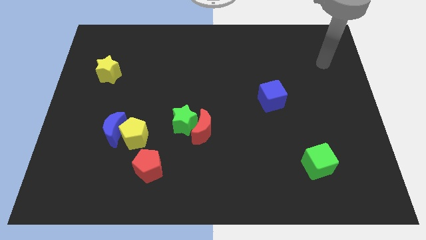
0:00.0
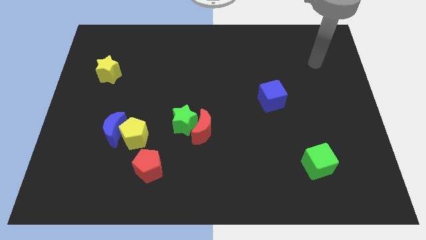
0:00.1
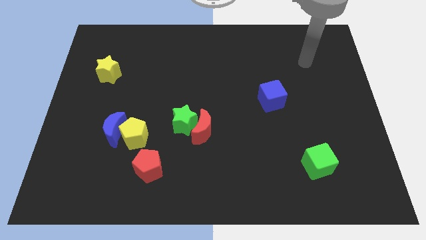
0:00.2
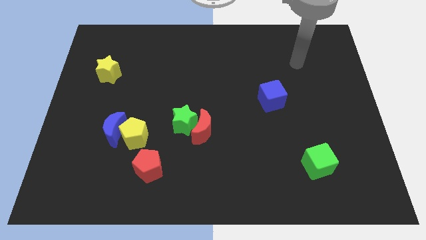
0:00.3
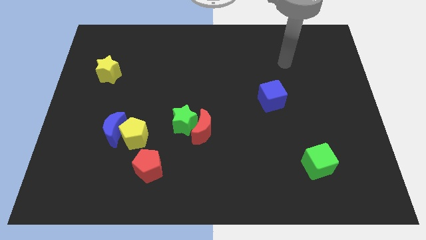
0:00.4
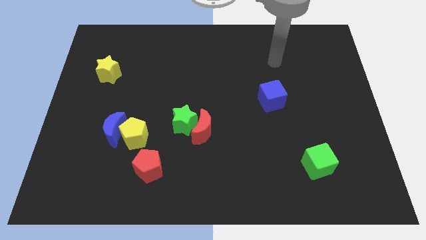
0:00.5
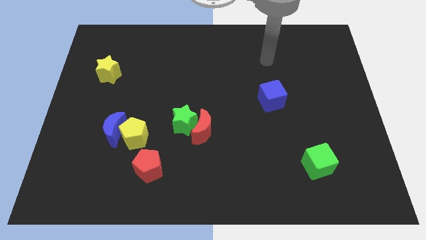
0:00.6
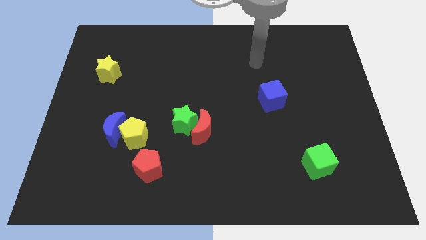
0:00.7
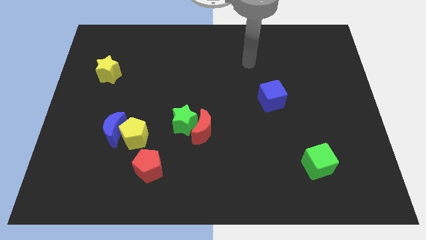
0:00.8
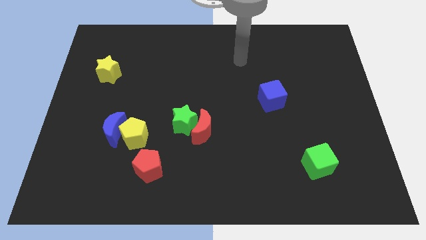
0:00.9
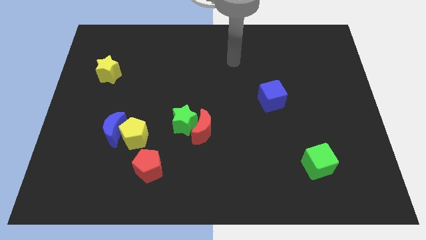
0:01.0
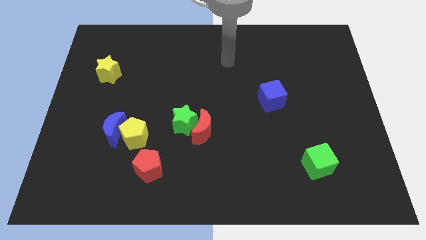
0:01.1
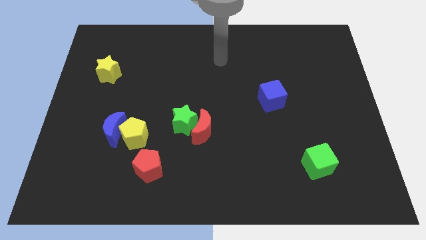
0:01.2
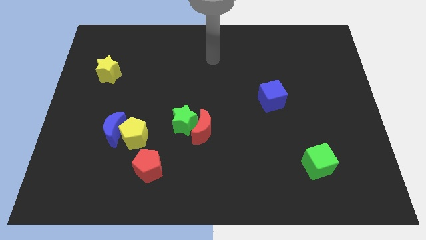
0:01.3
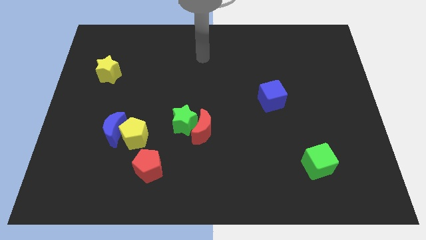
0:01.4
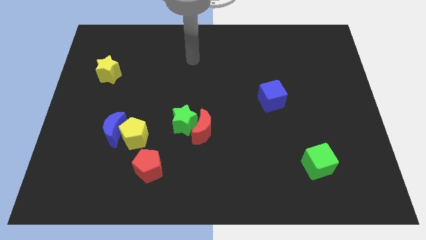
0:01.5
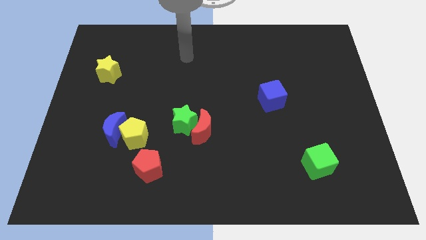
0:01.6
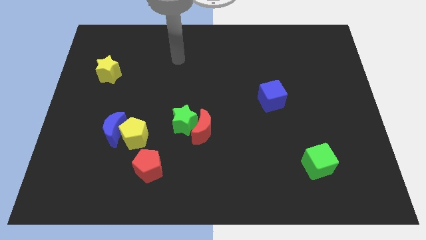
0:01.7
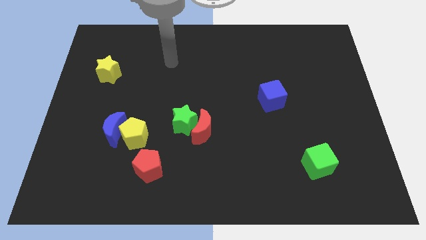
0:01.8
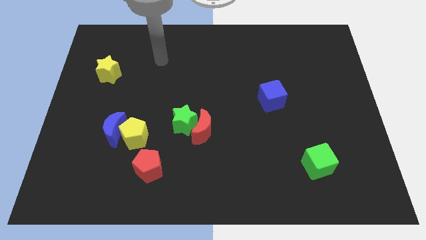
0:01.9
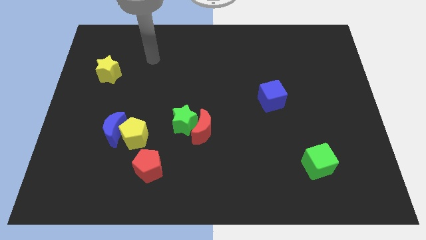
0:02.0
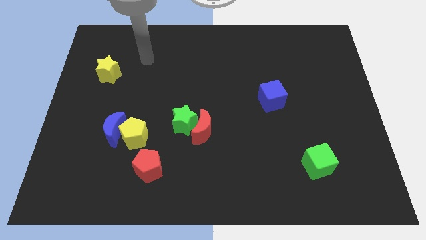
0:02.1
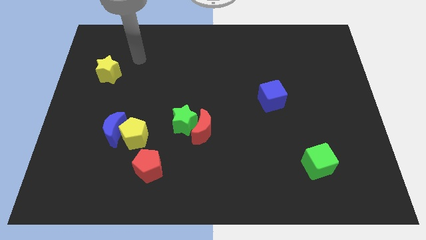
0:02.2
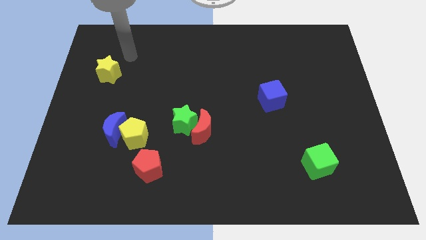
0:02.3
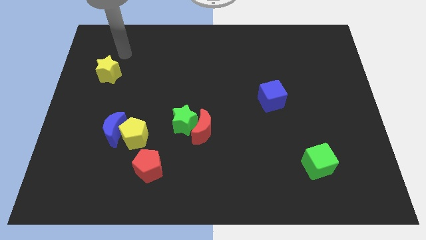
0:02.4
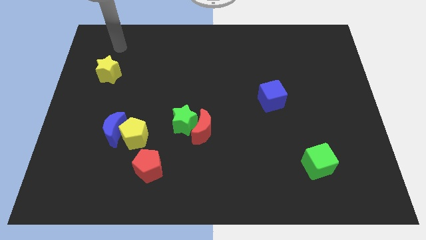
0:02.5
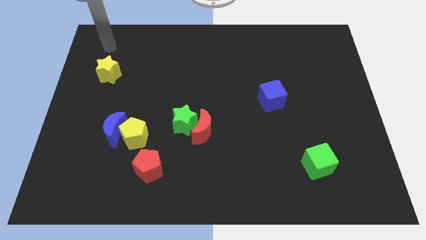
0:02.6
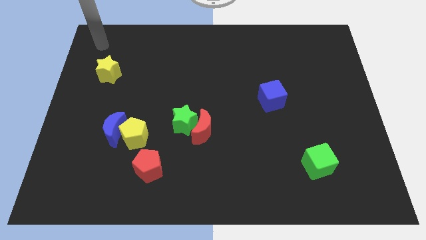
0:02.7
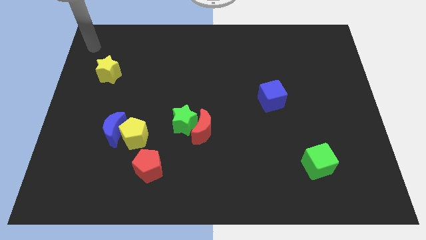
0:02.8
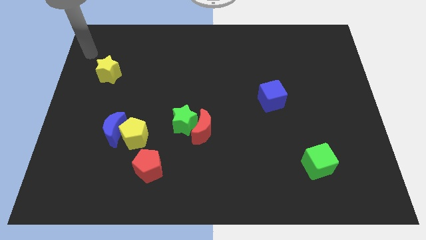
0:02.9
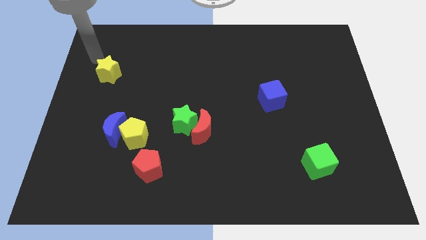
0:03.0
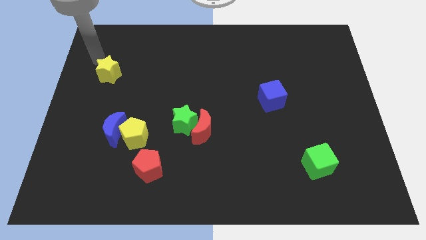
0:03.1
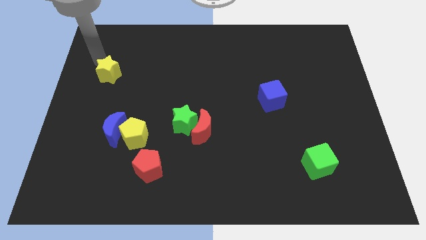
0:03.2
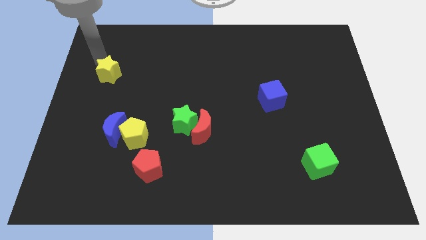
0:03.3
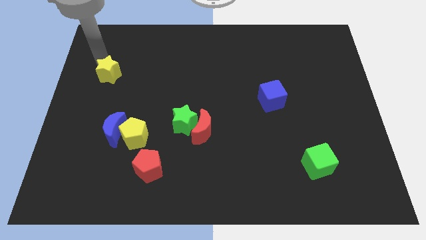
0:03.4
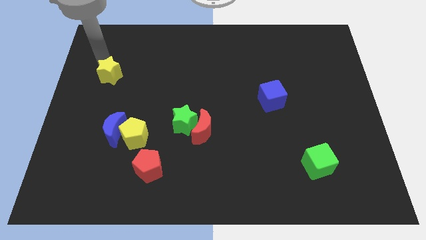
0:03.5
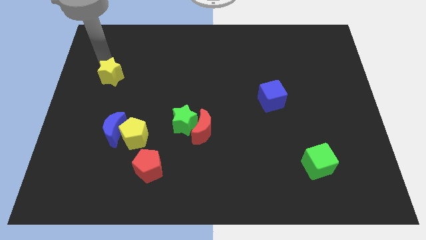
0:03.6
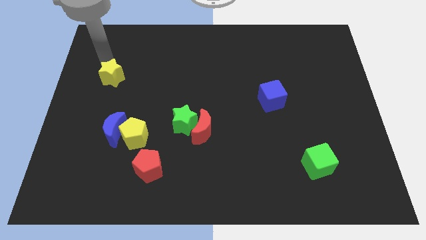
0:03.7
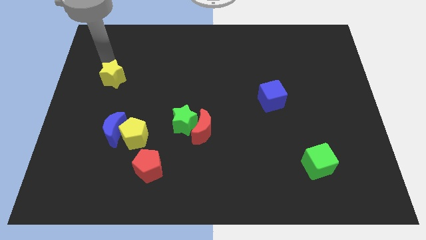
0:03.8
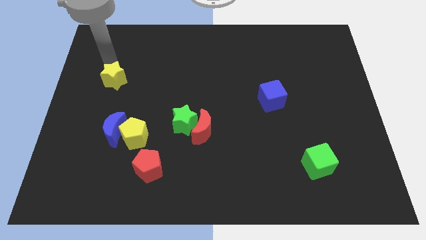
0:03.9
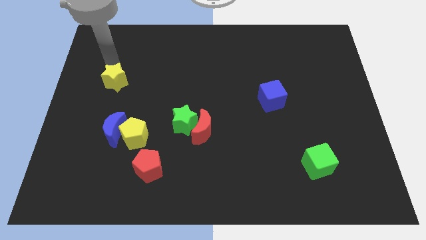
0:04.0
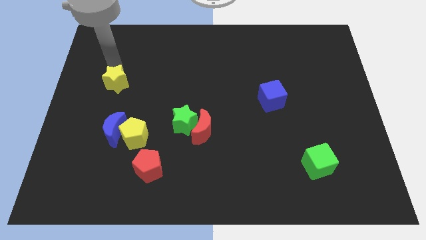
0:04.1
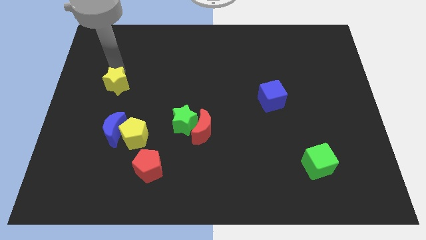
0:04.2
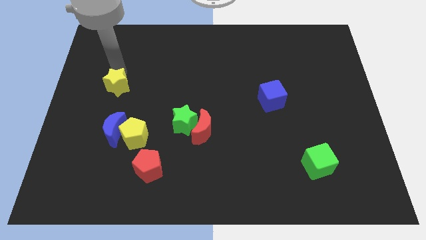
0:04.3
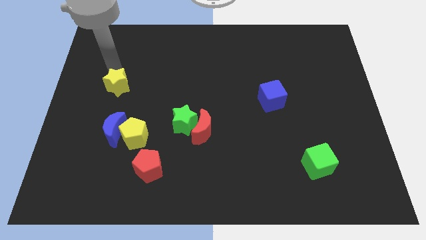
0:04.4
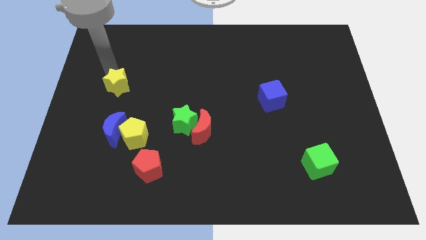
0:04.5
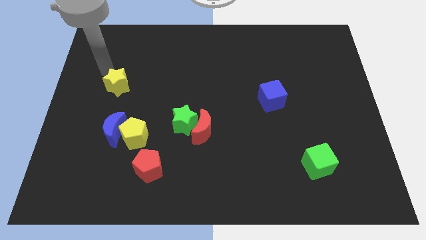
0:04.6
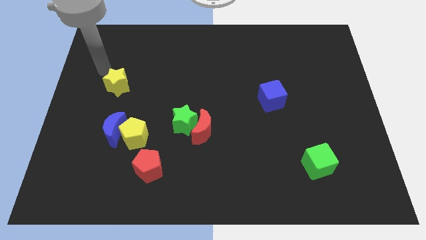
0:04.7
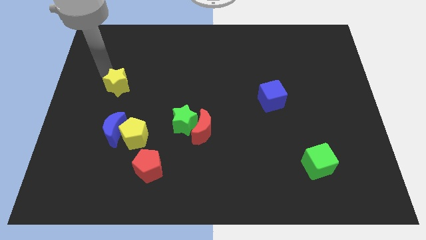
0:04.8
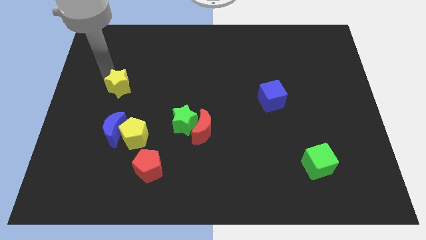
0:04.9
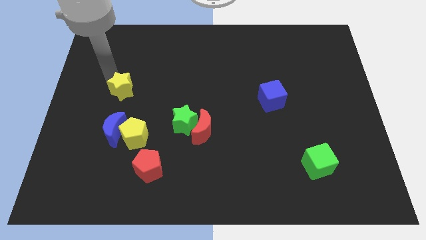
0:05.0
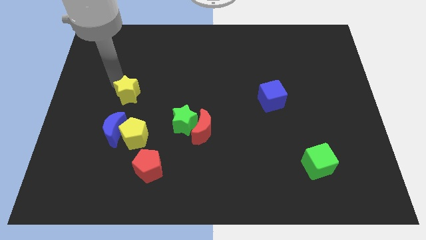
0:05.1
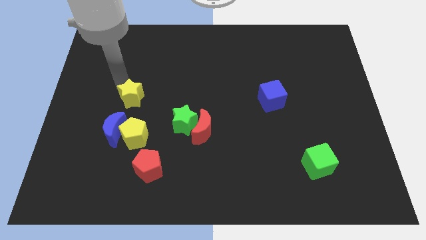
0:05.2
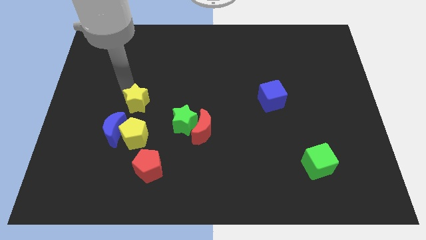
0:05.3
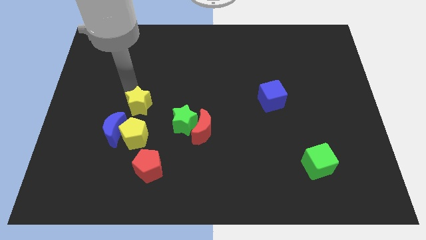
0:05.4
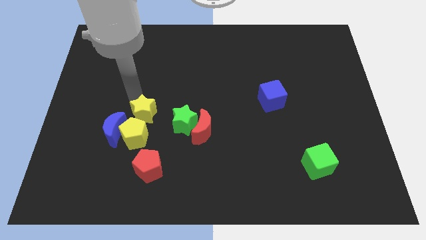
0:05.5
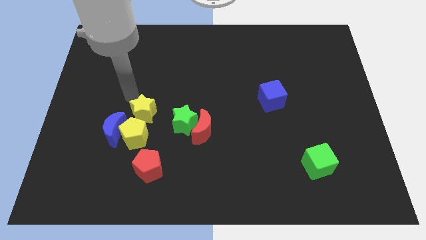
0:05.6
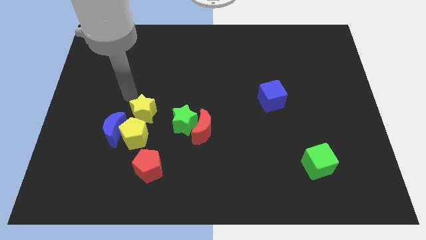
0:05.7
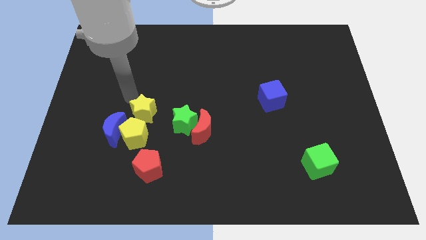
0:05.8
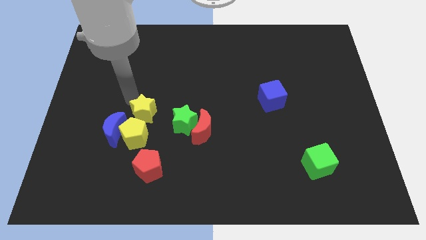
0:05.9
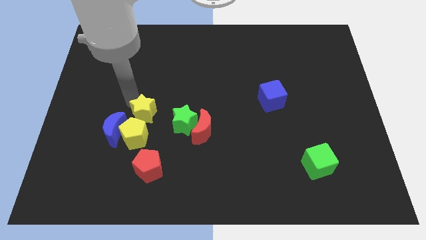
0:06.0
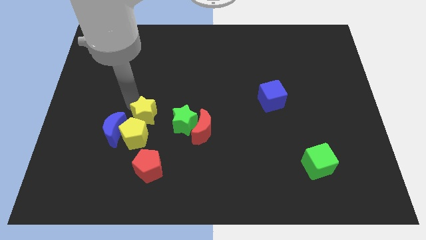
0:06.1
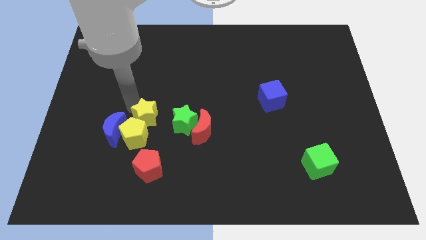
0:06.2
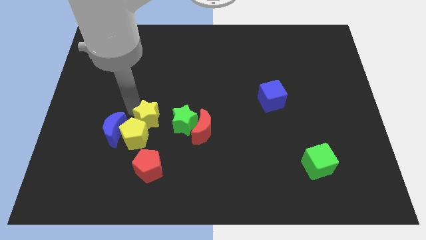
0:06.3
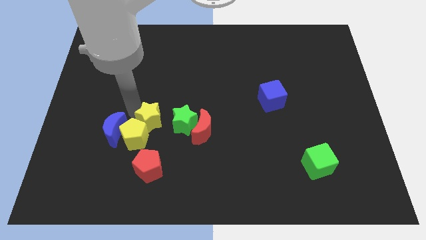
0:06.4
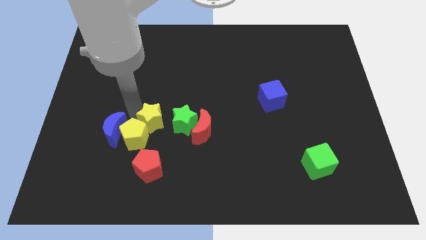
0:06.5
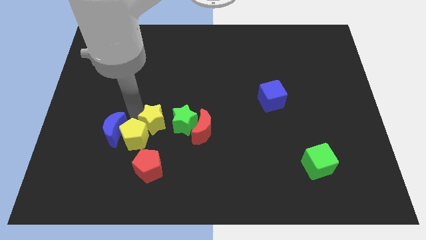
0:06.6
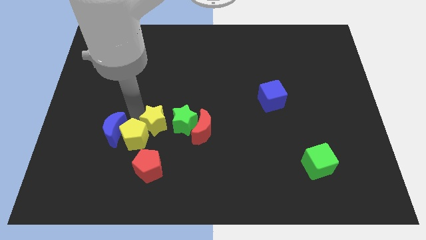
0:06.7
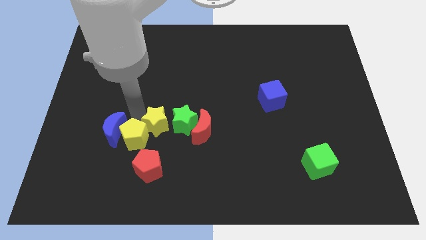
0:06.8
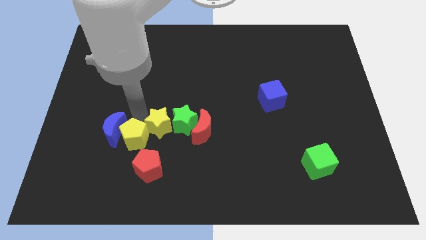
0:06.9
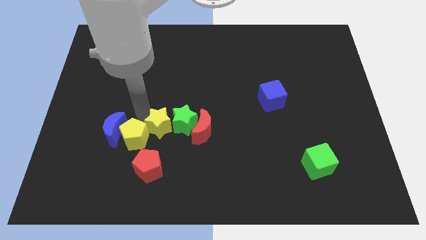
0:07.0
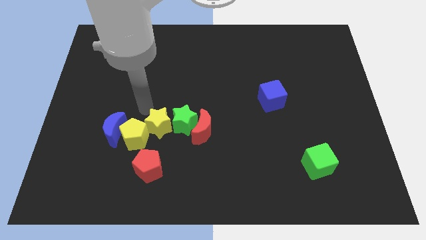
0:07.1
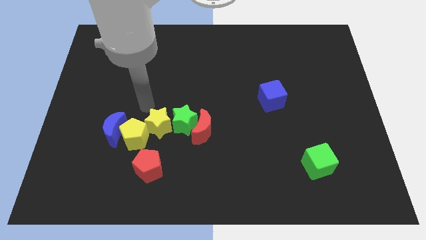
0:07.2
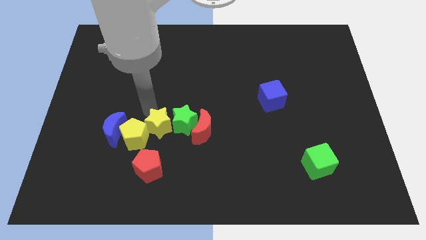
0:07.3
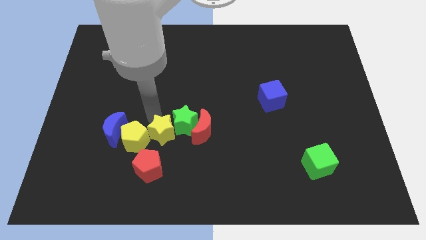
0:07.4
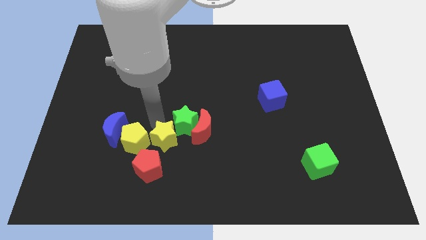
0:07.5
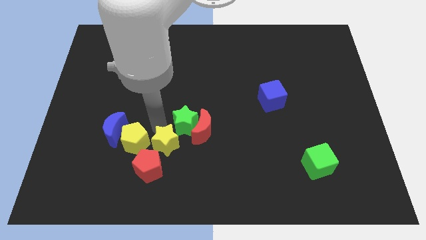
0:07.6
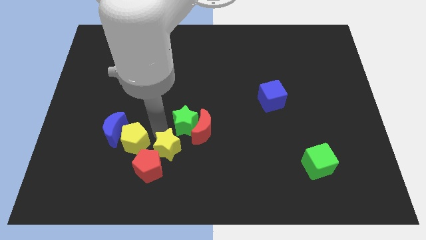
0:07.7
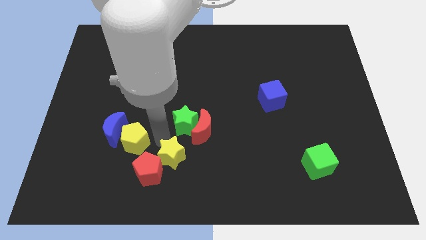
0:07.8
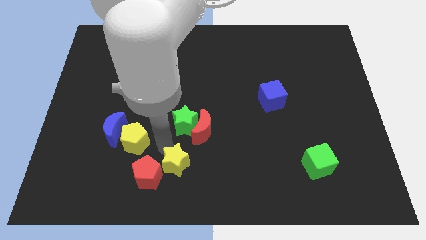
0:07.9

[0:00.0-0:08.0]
put the yellow star to the bottom
